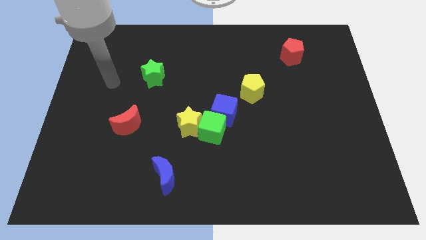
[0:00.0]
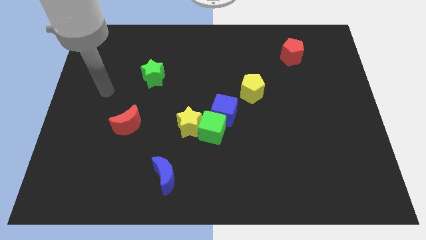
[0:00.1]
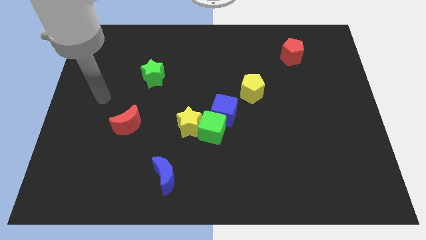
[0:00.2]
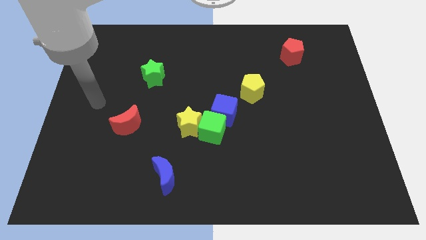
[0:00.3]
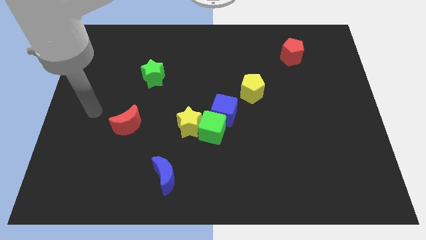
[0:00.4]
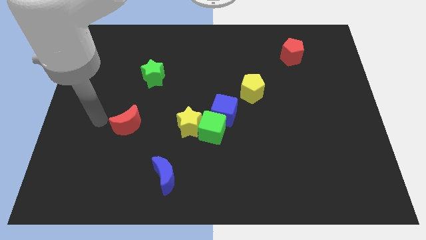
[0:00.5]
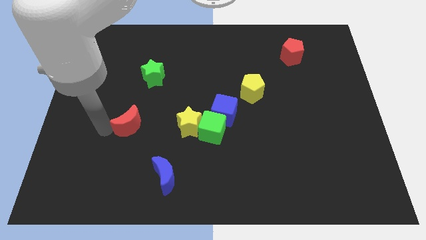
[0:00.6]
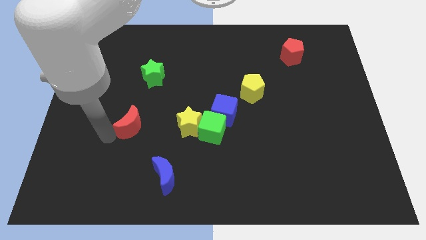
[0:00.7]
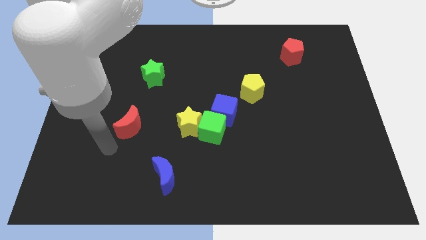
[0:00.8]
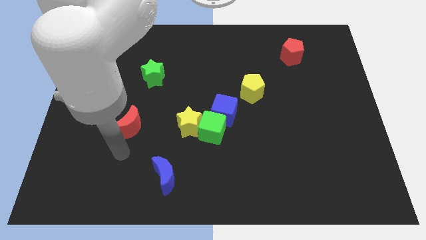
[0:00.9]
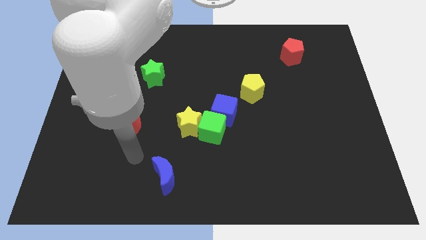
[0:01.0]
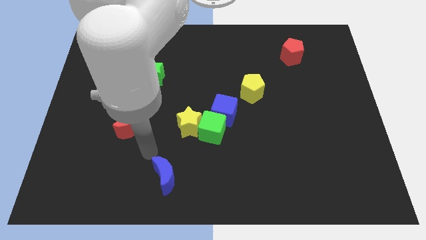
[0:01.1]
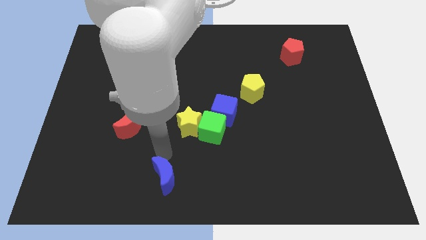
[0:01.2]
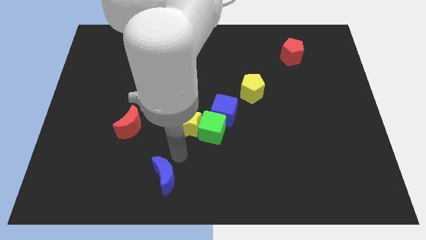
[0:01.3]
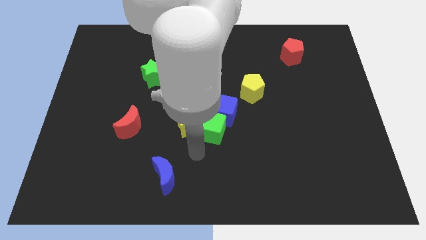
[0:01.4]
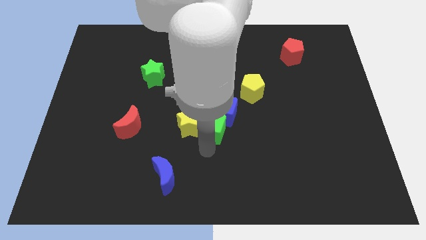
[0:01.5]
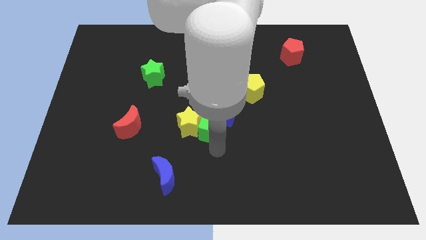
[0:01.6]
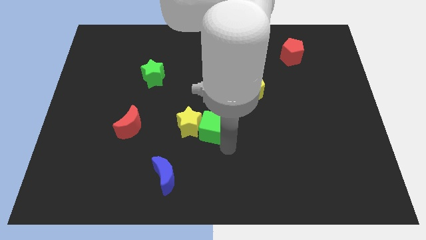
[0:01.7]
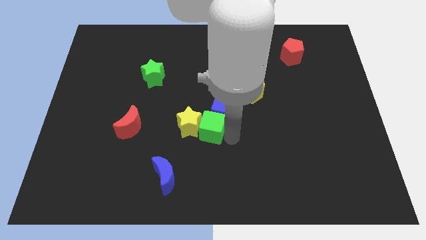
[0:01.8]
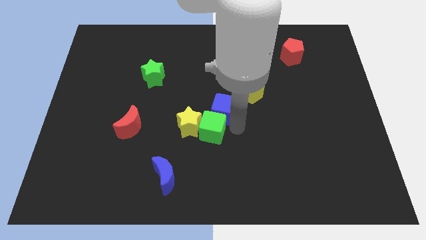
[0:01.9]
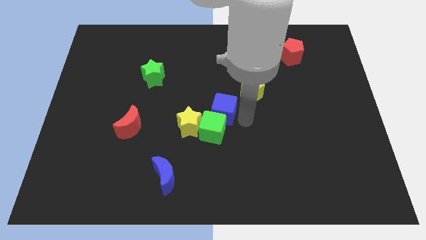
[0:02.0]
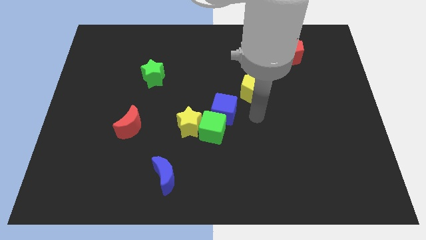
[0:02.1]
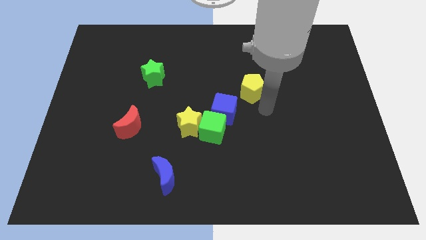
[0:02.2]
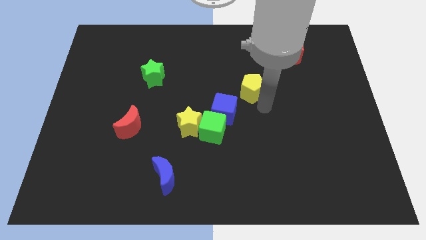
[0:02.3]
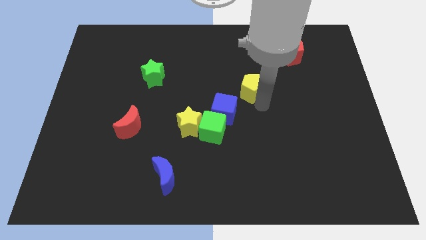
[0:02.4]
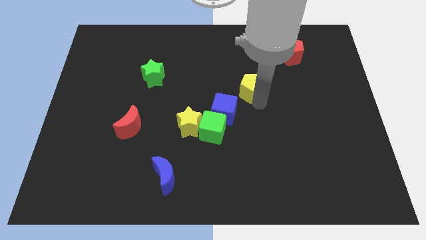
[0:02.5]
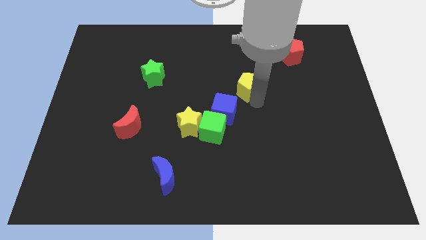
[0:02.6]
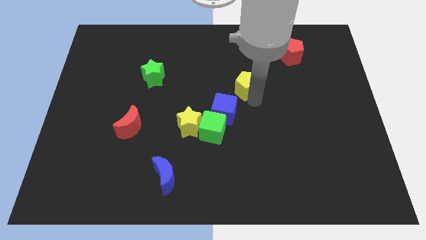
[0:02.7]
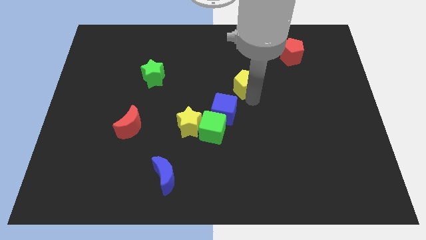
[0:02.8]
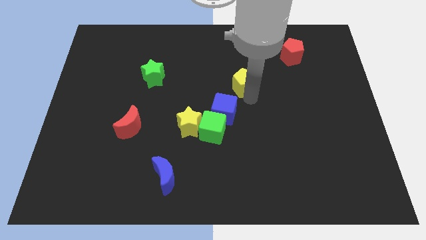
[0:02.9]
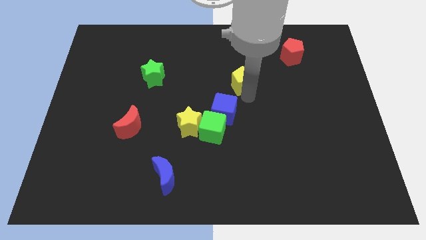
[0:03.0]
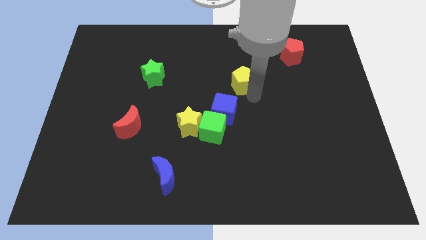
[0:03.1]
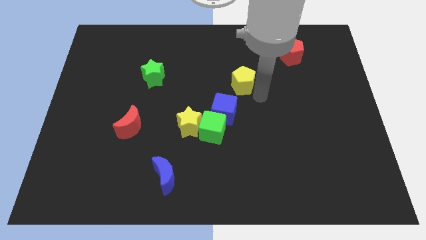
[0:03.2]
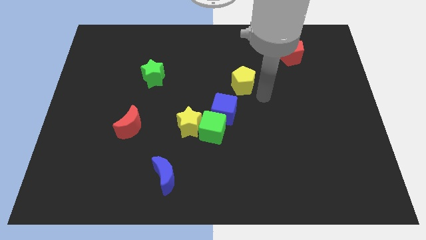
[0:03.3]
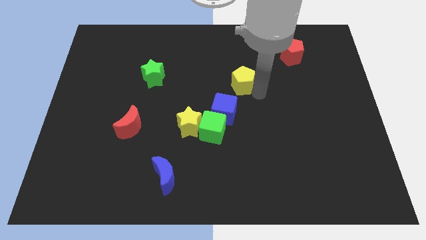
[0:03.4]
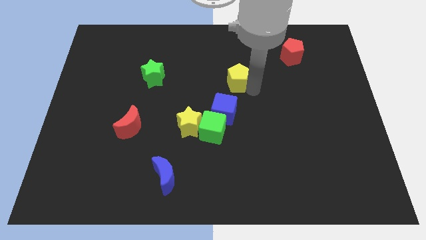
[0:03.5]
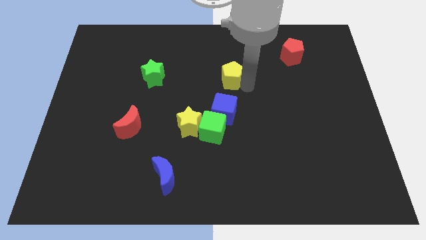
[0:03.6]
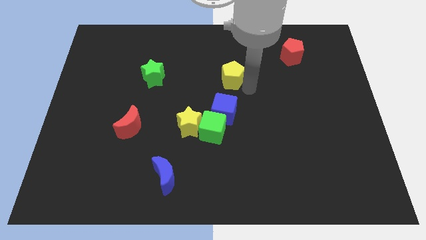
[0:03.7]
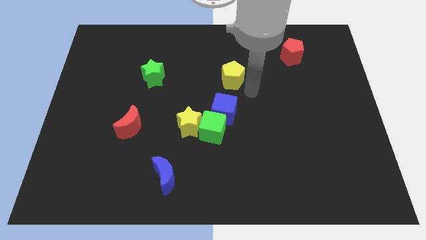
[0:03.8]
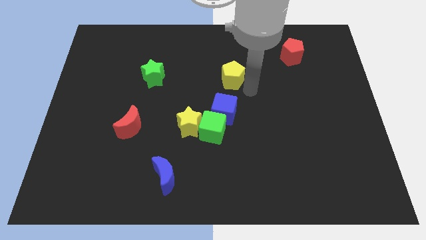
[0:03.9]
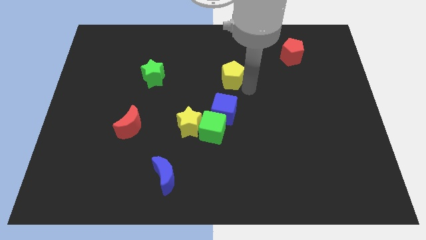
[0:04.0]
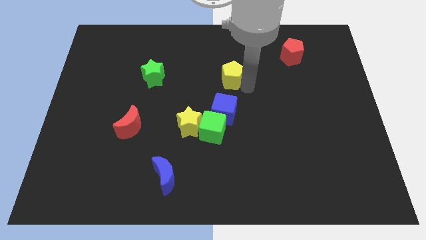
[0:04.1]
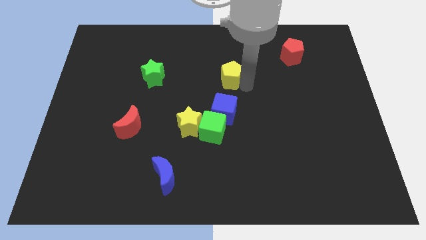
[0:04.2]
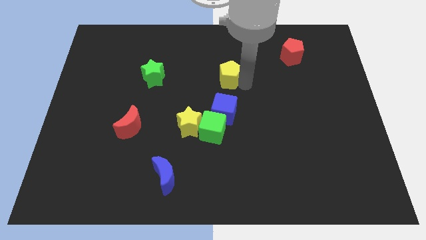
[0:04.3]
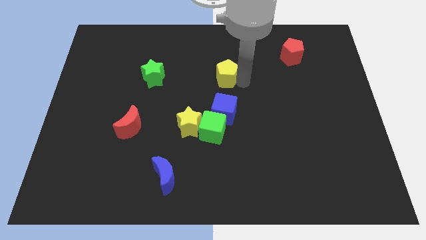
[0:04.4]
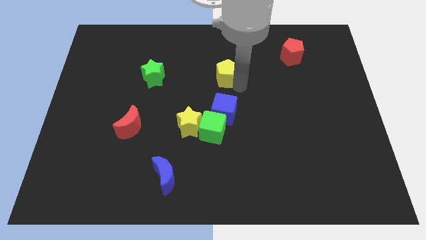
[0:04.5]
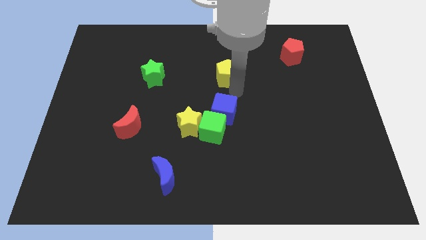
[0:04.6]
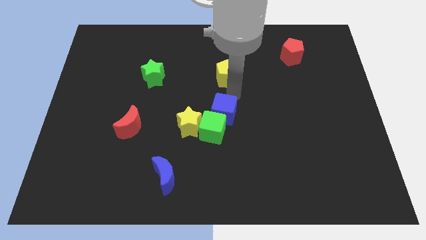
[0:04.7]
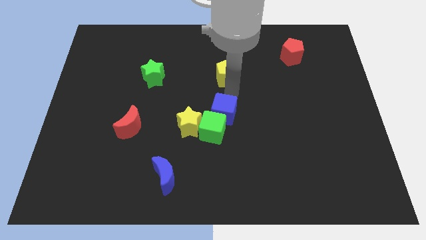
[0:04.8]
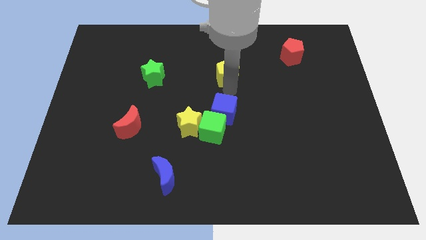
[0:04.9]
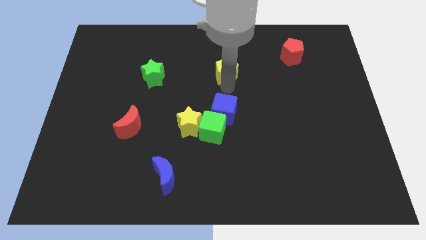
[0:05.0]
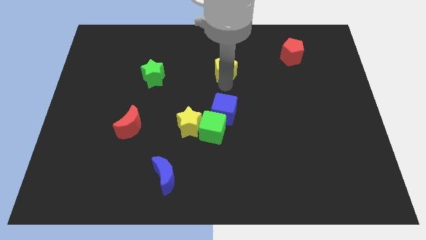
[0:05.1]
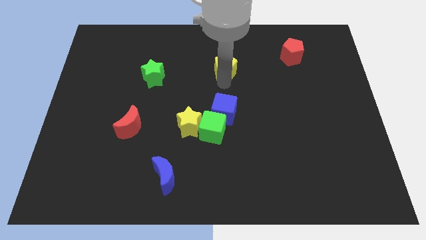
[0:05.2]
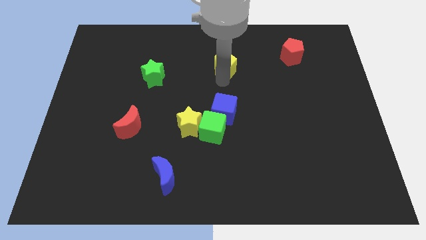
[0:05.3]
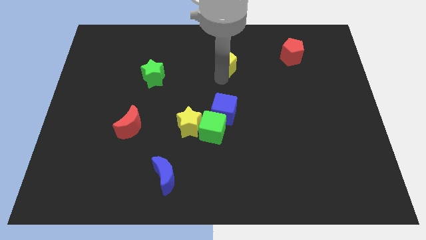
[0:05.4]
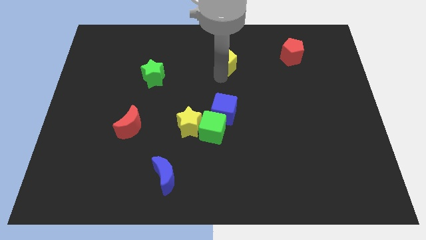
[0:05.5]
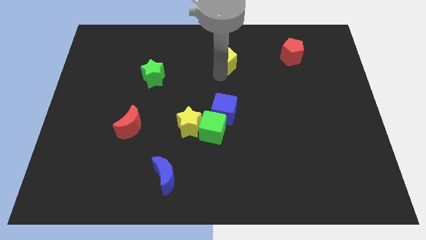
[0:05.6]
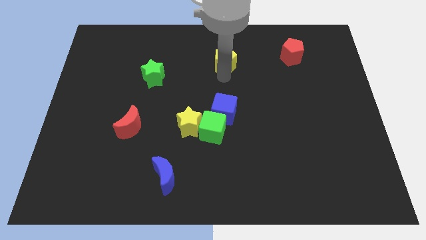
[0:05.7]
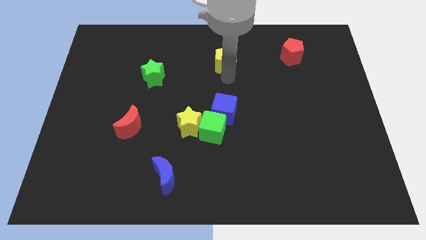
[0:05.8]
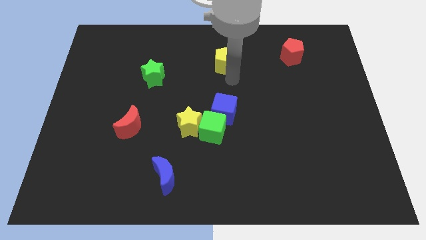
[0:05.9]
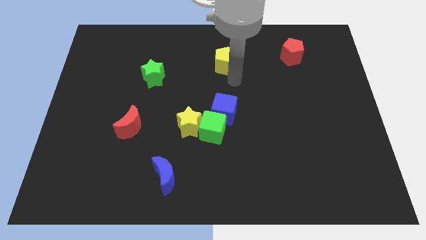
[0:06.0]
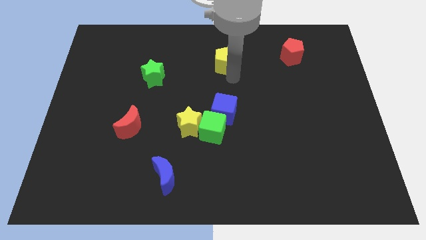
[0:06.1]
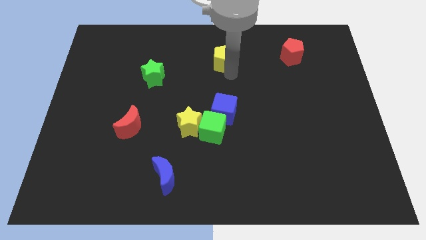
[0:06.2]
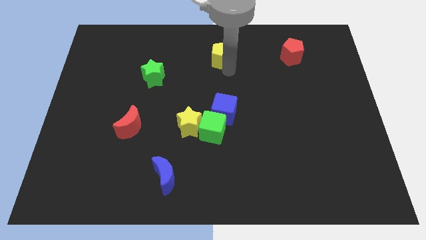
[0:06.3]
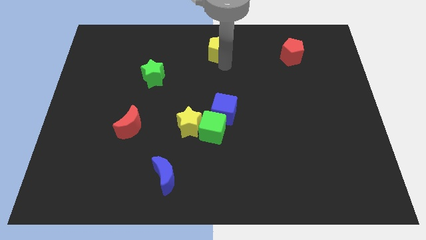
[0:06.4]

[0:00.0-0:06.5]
put the yellow pentagon to the towards your base

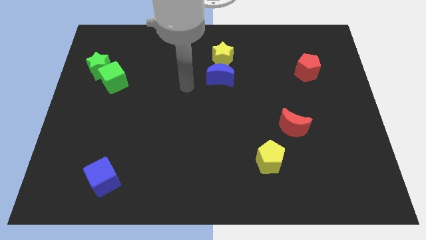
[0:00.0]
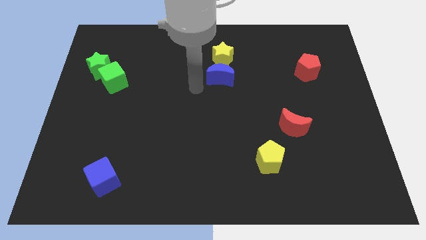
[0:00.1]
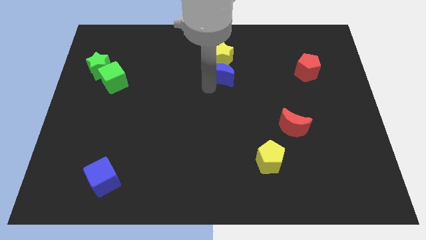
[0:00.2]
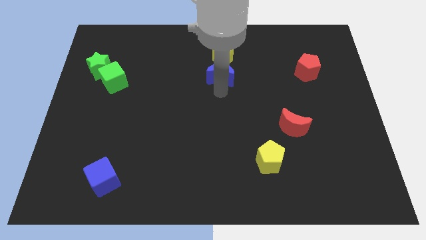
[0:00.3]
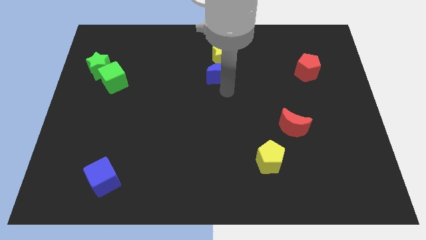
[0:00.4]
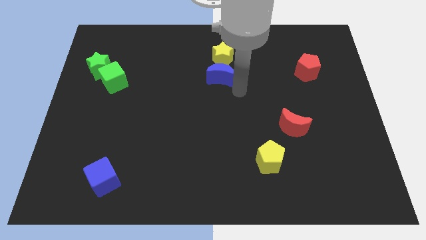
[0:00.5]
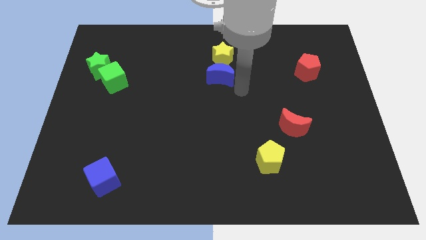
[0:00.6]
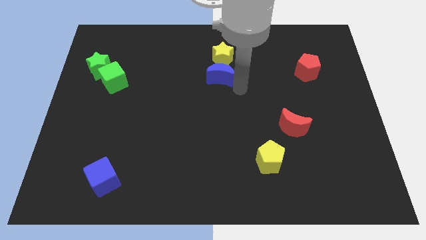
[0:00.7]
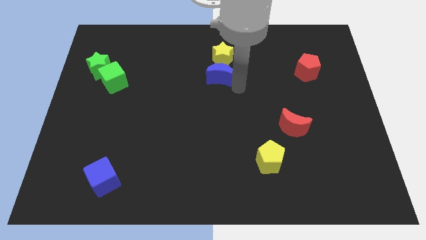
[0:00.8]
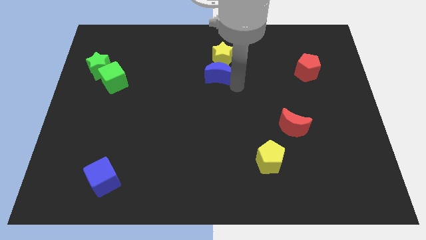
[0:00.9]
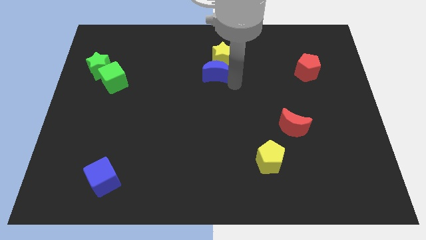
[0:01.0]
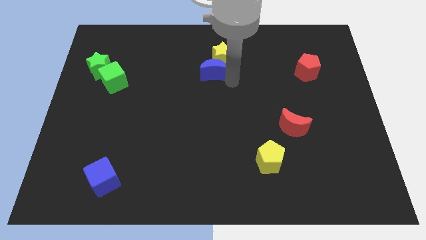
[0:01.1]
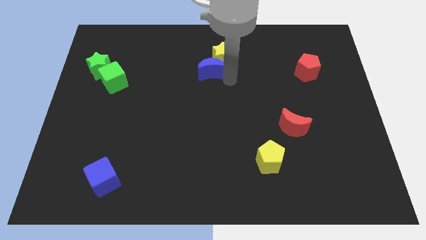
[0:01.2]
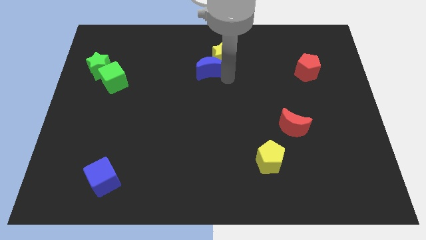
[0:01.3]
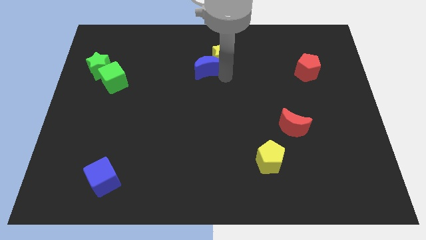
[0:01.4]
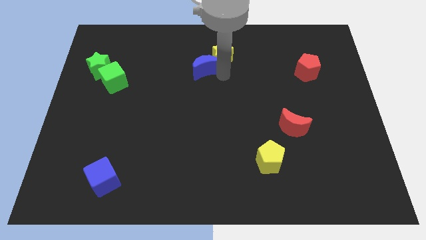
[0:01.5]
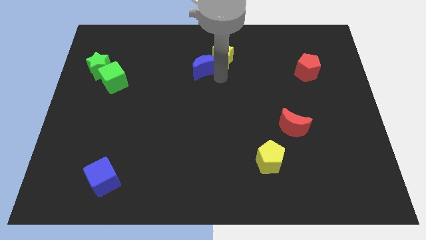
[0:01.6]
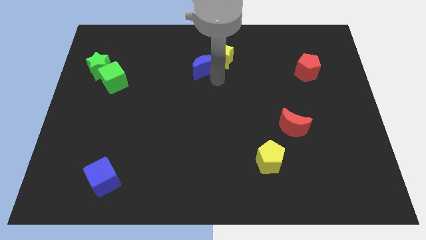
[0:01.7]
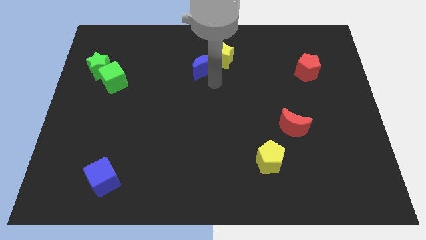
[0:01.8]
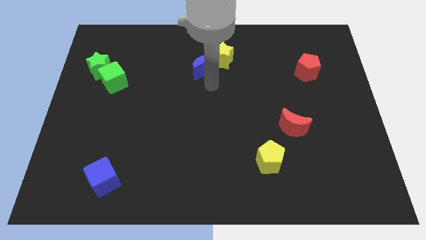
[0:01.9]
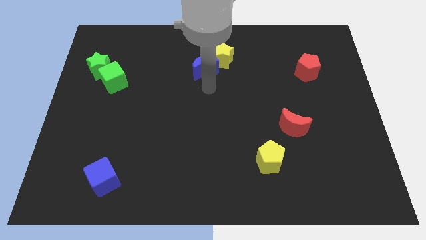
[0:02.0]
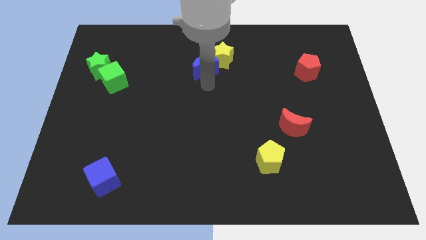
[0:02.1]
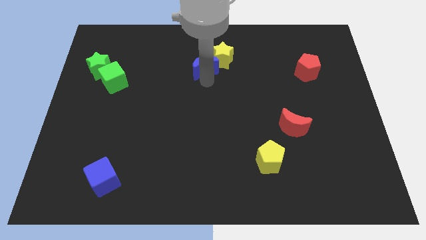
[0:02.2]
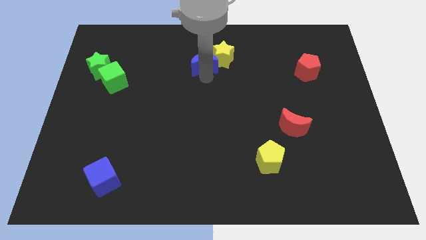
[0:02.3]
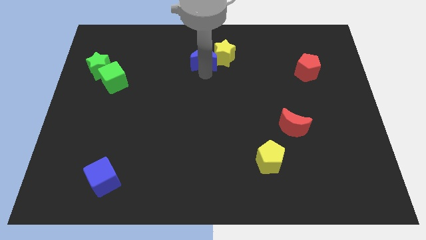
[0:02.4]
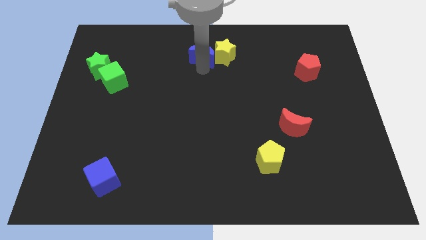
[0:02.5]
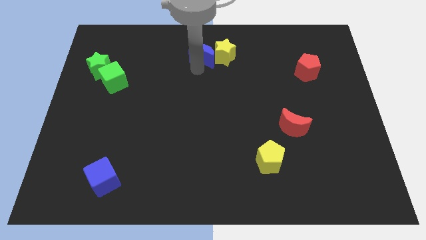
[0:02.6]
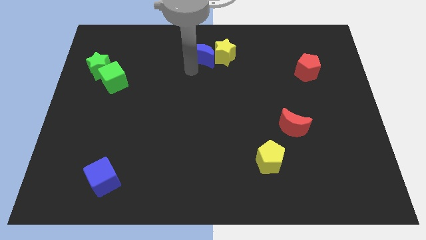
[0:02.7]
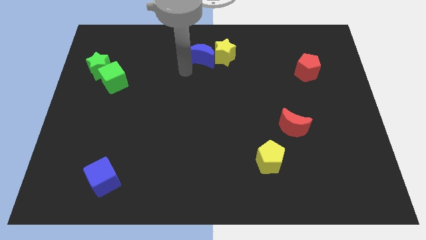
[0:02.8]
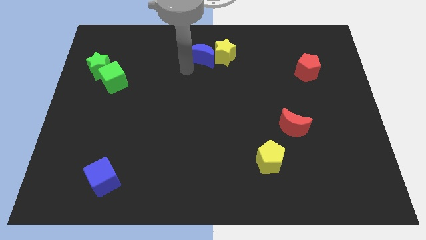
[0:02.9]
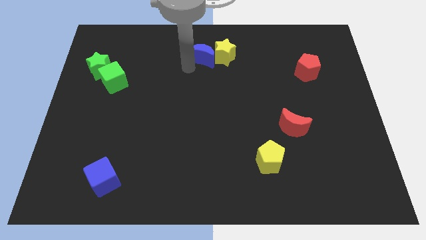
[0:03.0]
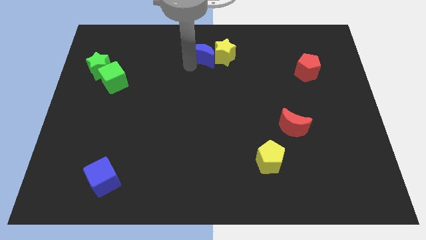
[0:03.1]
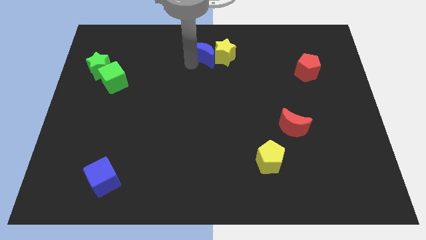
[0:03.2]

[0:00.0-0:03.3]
push the blue moon to the top side
